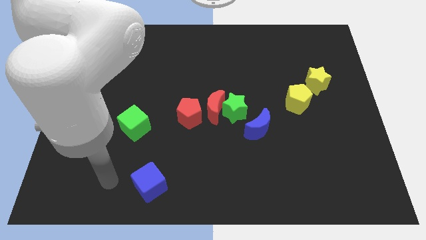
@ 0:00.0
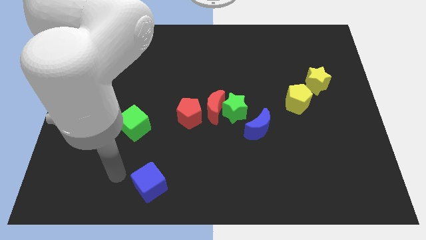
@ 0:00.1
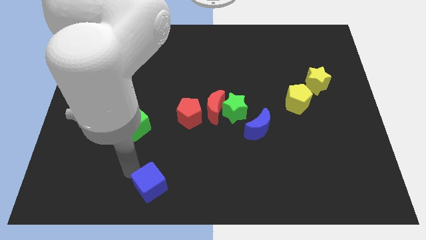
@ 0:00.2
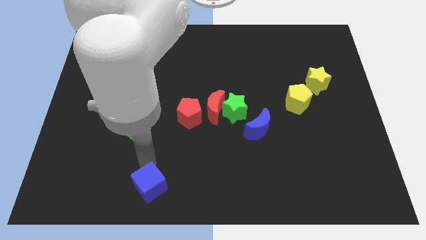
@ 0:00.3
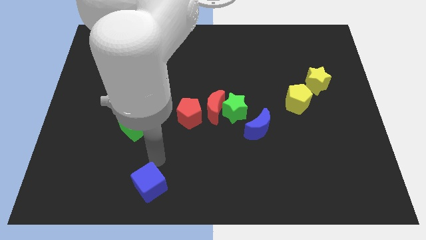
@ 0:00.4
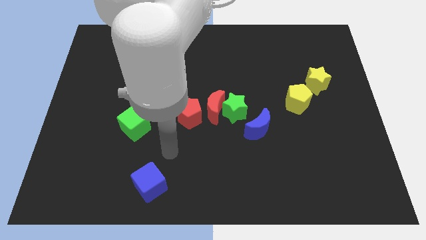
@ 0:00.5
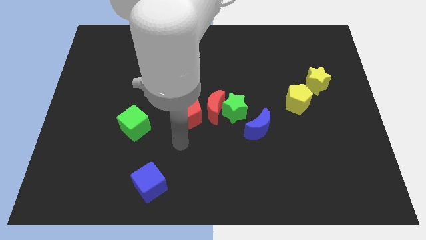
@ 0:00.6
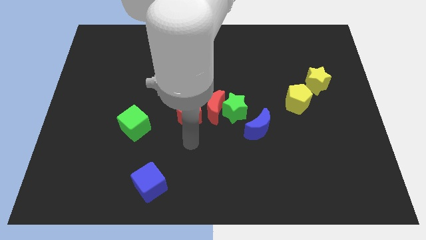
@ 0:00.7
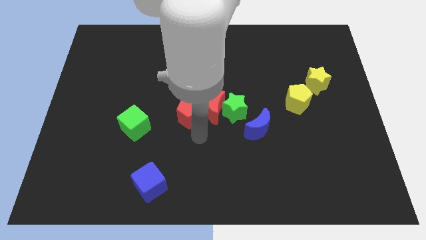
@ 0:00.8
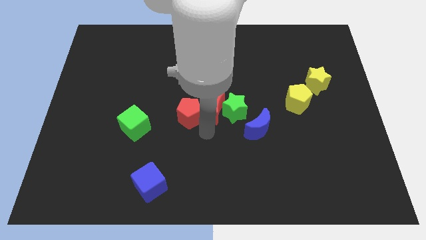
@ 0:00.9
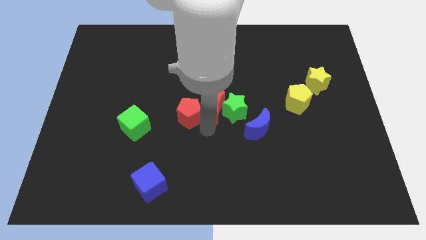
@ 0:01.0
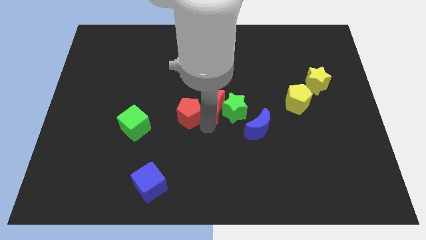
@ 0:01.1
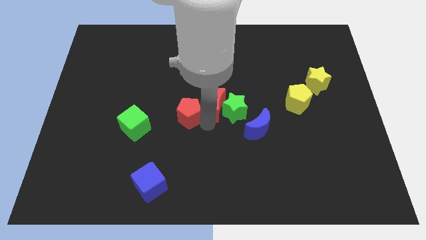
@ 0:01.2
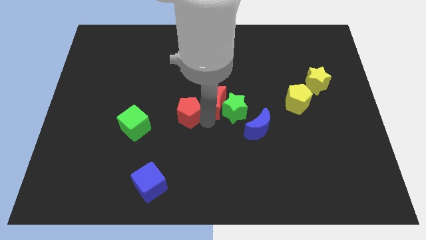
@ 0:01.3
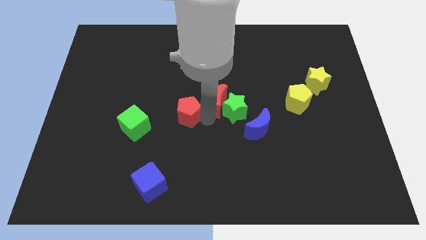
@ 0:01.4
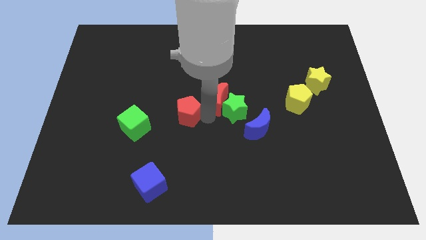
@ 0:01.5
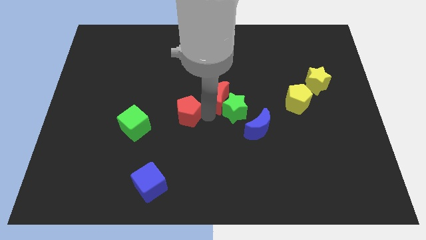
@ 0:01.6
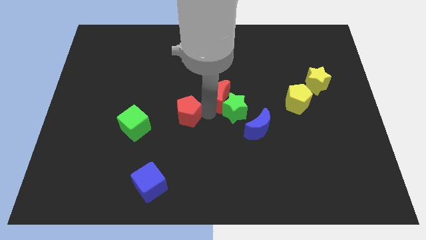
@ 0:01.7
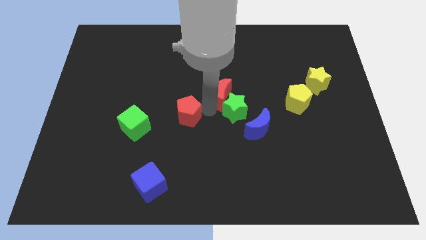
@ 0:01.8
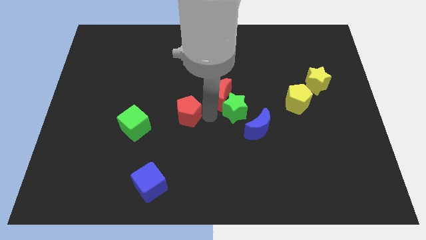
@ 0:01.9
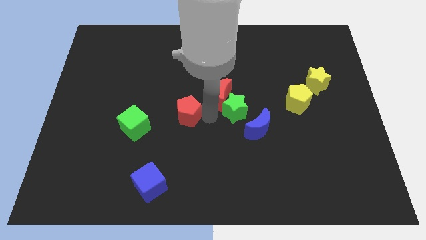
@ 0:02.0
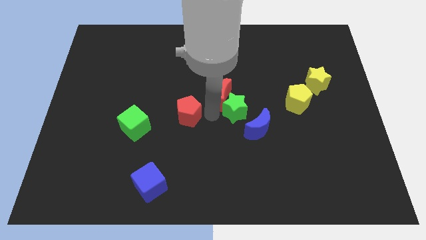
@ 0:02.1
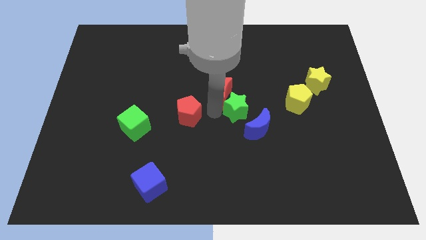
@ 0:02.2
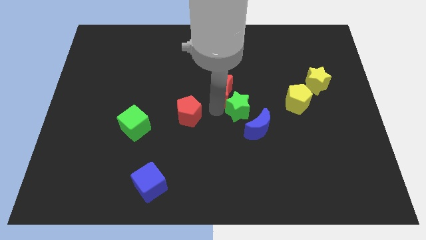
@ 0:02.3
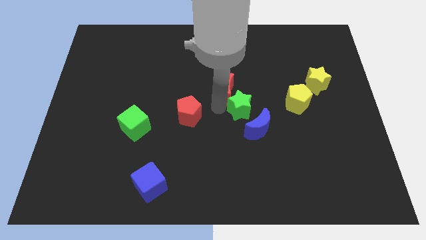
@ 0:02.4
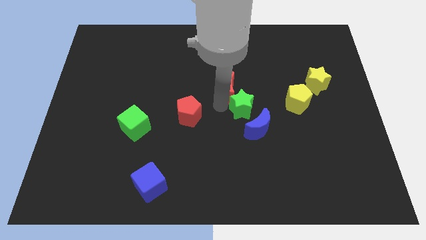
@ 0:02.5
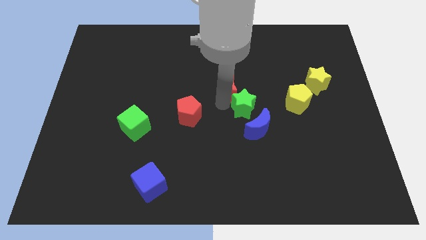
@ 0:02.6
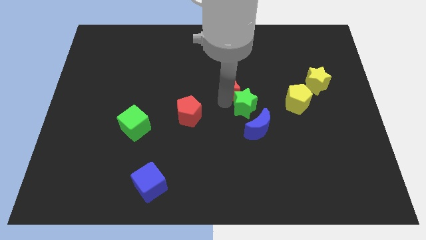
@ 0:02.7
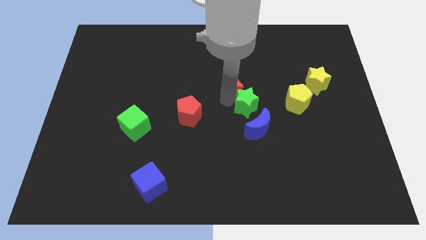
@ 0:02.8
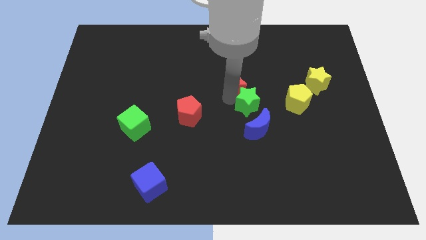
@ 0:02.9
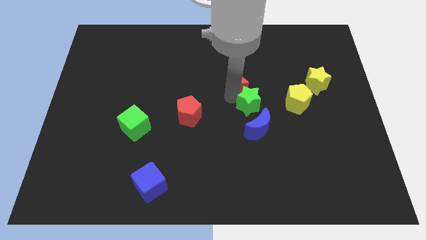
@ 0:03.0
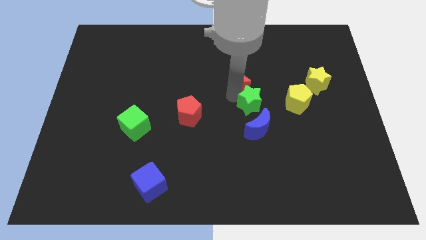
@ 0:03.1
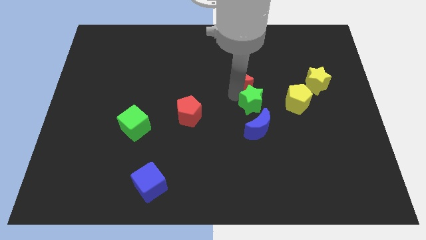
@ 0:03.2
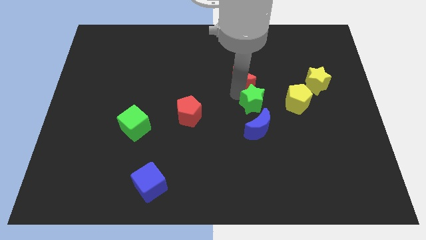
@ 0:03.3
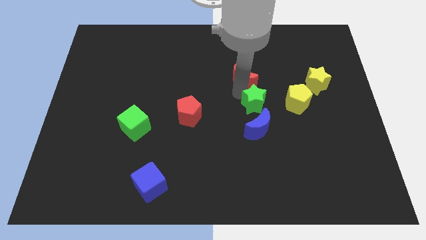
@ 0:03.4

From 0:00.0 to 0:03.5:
pull the red moon apart from the green star and red pentagon

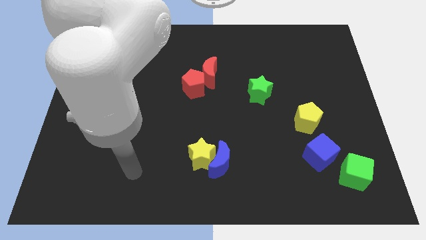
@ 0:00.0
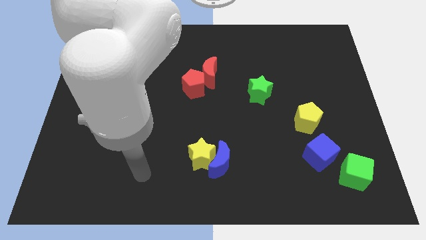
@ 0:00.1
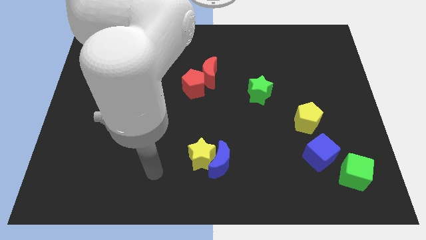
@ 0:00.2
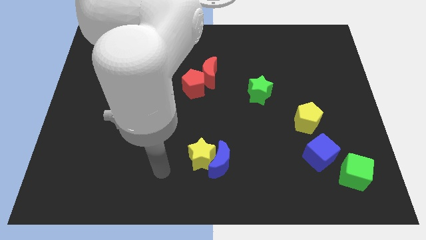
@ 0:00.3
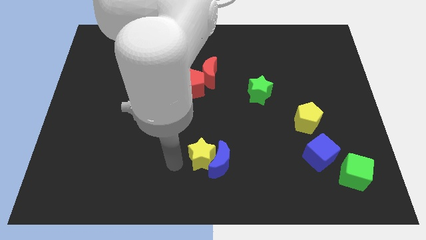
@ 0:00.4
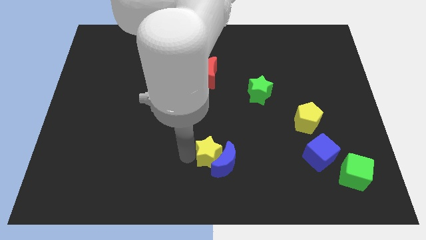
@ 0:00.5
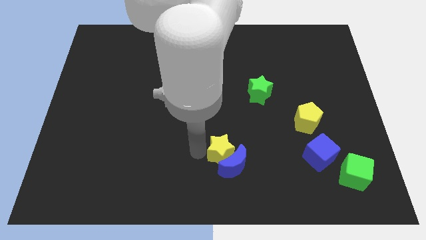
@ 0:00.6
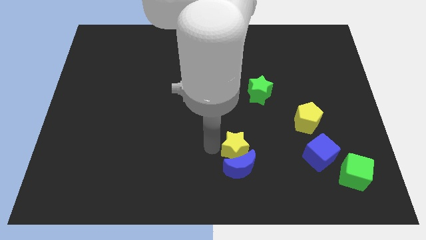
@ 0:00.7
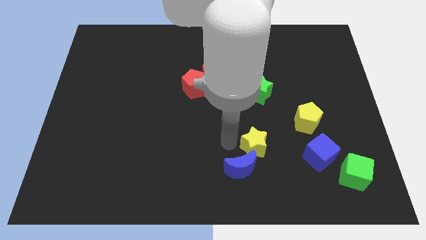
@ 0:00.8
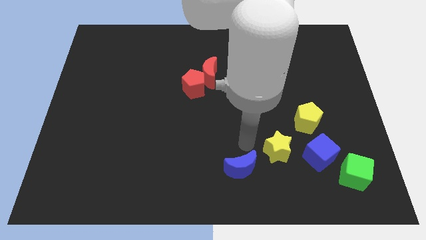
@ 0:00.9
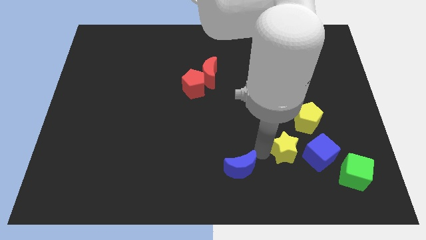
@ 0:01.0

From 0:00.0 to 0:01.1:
separate the blue moon from the yellow star

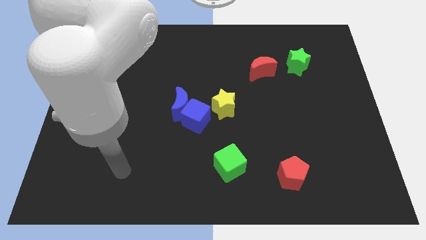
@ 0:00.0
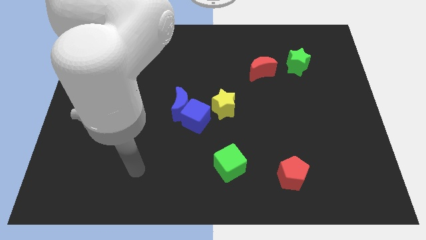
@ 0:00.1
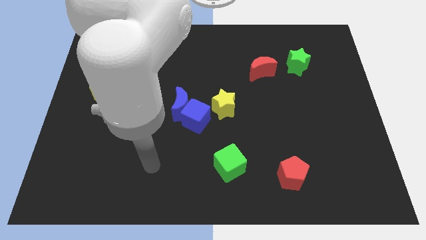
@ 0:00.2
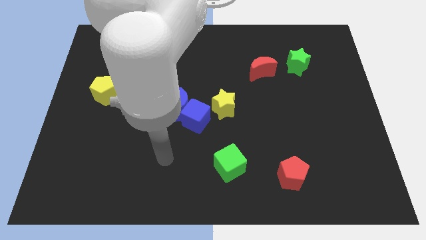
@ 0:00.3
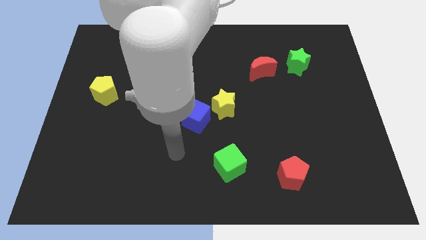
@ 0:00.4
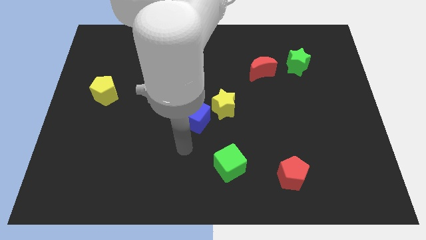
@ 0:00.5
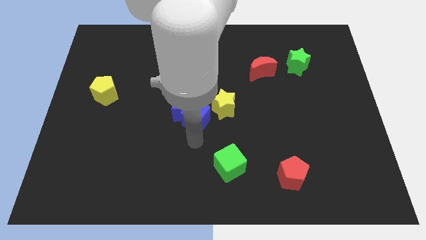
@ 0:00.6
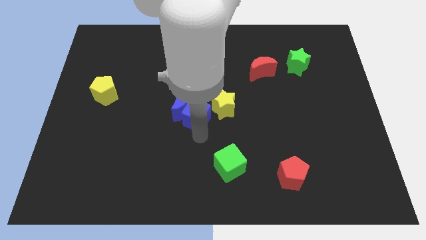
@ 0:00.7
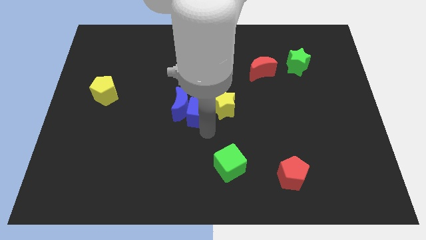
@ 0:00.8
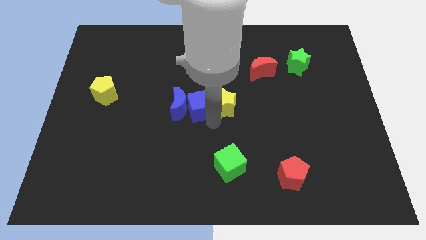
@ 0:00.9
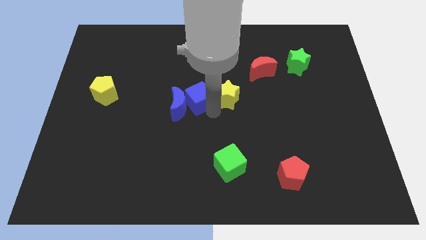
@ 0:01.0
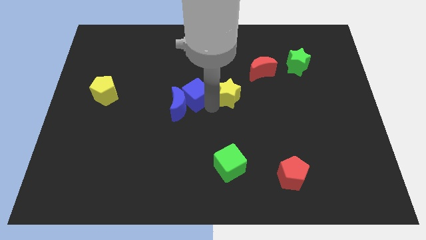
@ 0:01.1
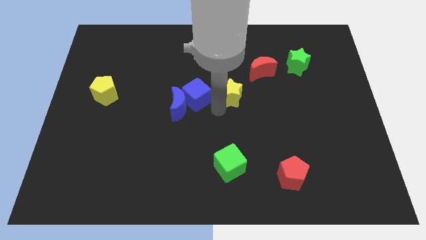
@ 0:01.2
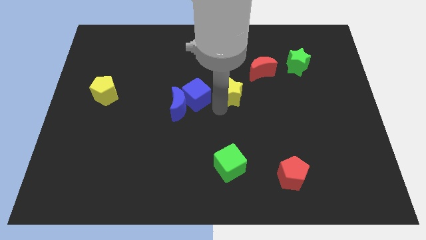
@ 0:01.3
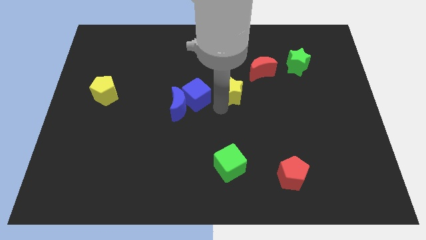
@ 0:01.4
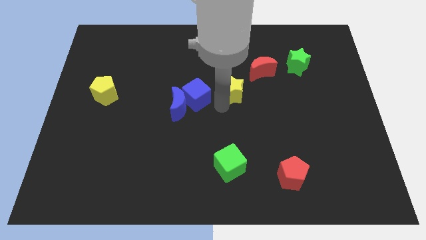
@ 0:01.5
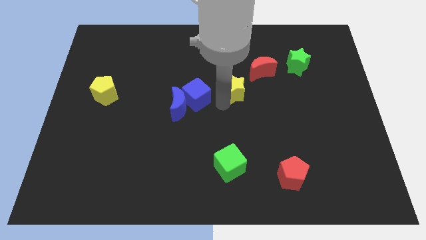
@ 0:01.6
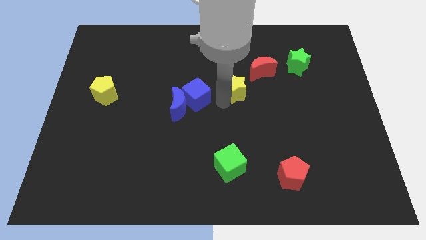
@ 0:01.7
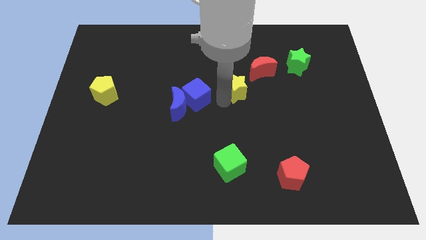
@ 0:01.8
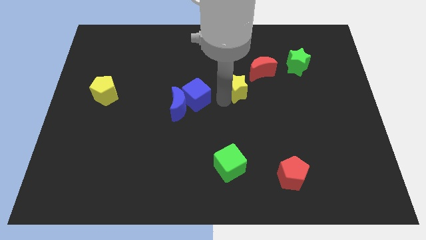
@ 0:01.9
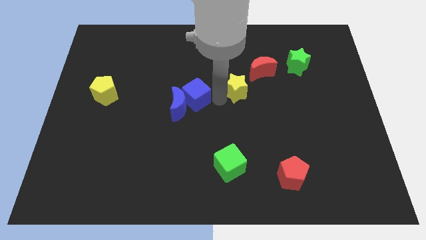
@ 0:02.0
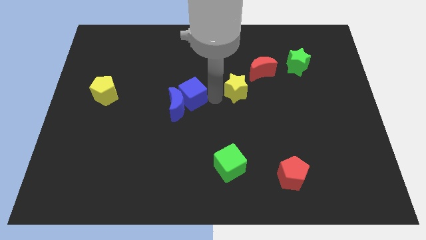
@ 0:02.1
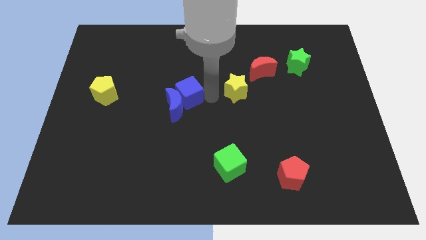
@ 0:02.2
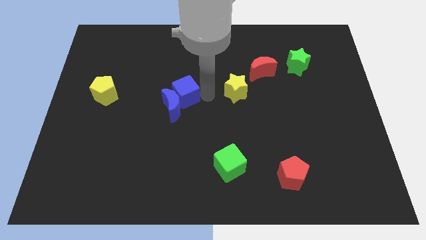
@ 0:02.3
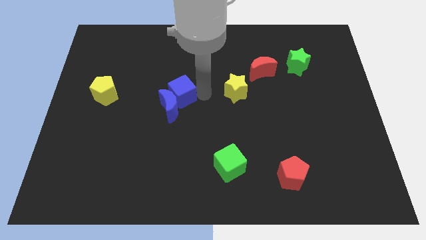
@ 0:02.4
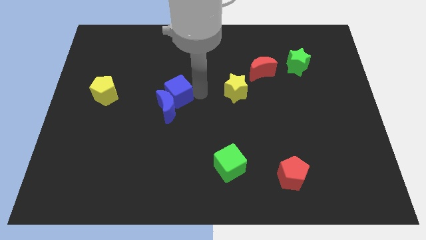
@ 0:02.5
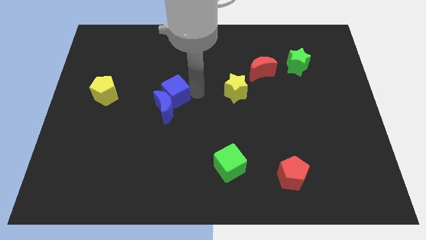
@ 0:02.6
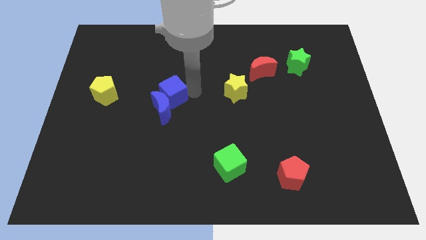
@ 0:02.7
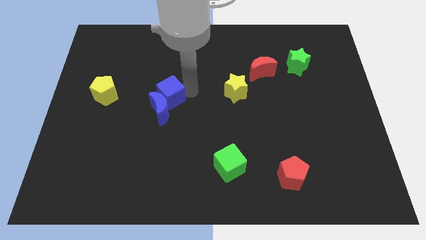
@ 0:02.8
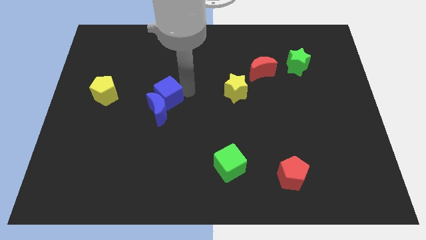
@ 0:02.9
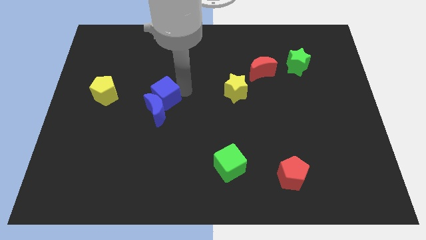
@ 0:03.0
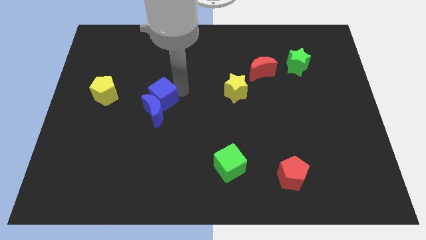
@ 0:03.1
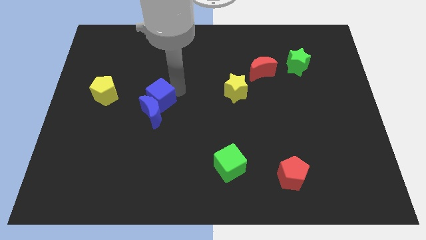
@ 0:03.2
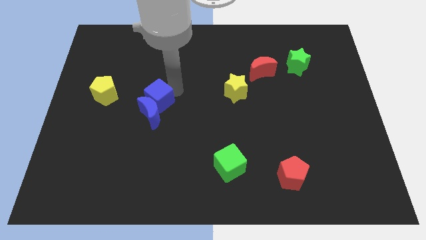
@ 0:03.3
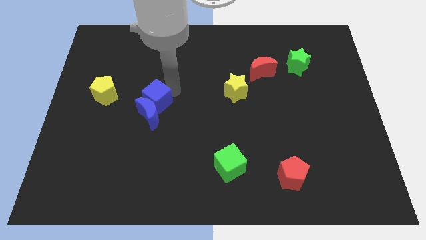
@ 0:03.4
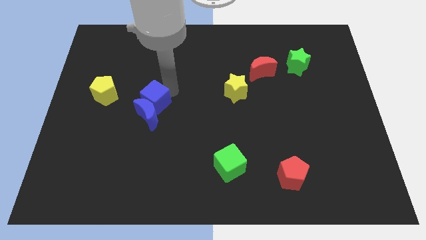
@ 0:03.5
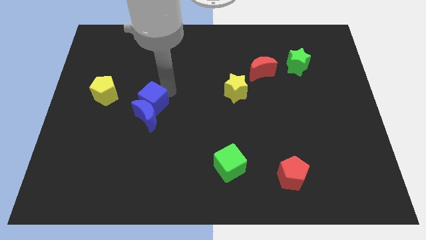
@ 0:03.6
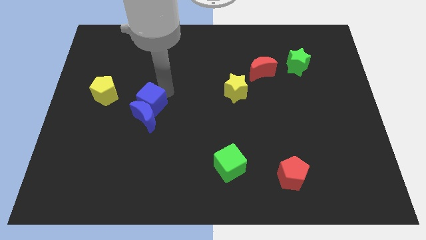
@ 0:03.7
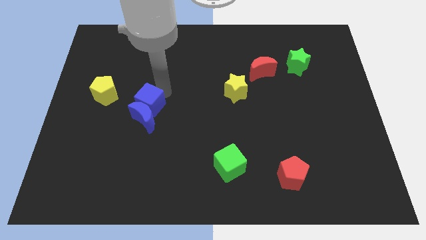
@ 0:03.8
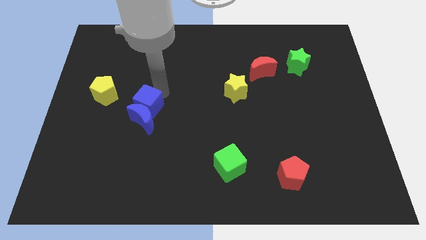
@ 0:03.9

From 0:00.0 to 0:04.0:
separate the blue cube from the blue moon and yellow star

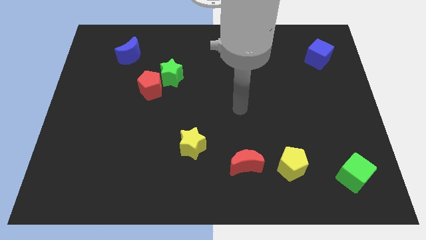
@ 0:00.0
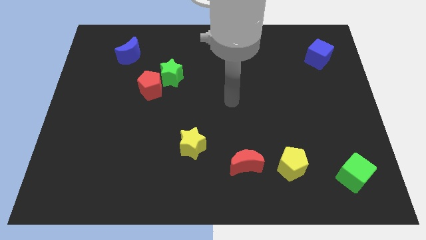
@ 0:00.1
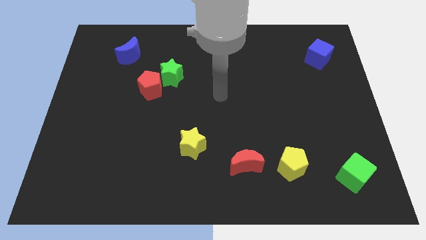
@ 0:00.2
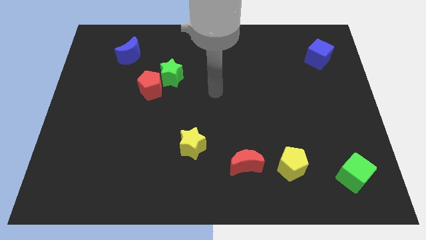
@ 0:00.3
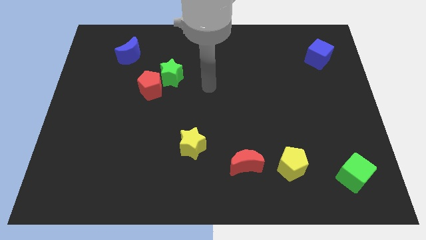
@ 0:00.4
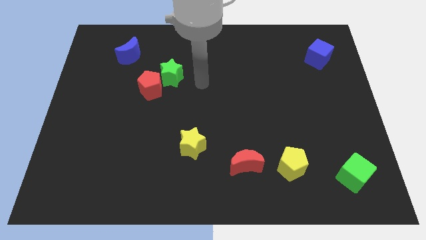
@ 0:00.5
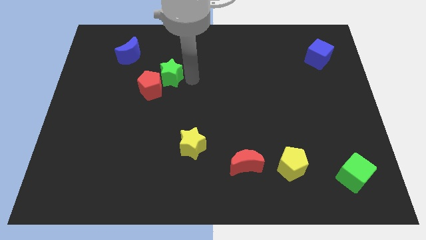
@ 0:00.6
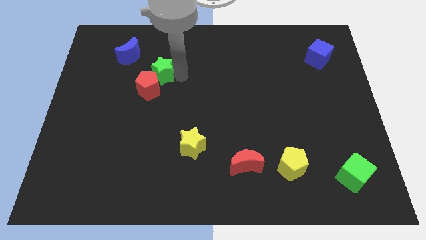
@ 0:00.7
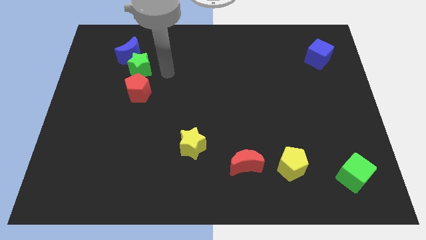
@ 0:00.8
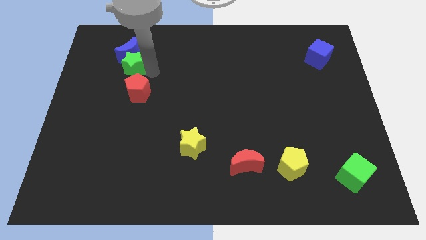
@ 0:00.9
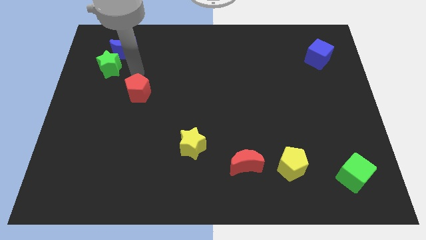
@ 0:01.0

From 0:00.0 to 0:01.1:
pull the red pentagon apart from the green star
